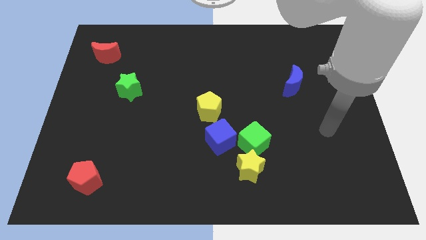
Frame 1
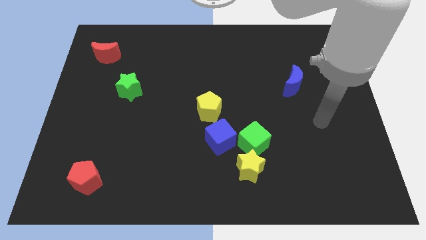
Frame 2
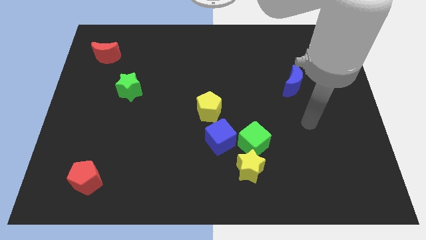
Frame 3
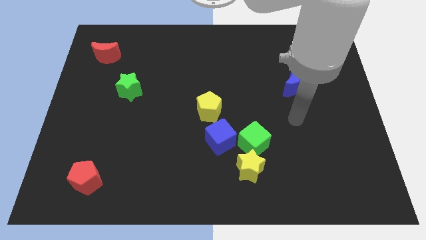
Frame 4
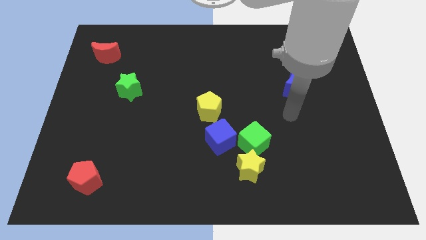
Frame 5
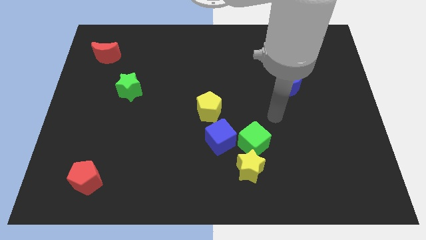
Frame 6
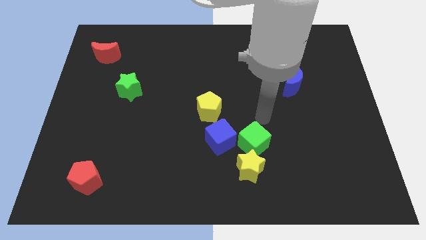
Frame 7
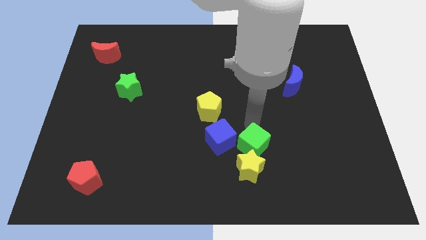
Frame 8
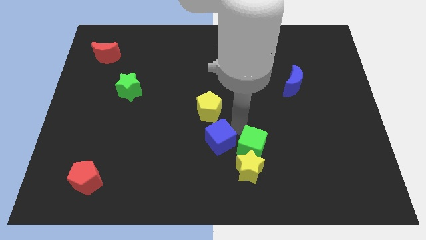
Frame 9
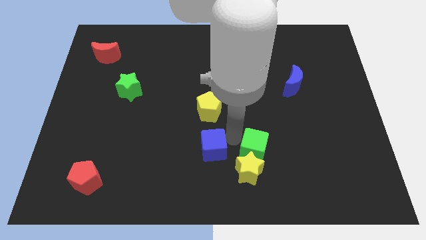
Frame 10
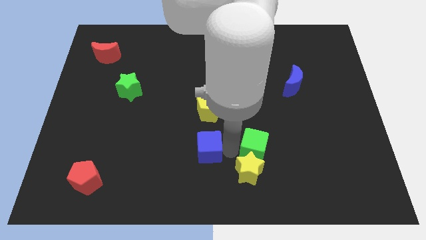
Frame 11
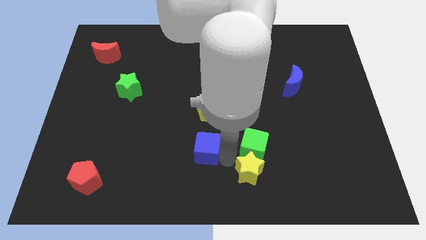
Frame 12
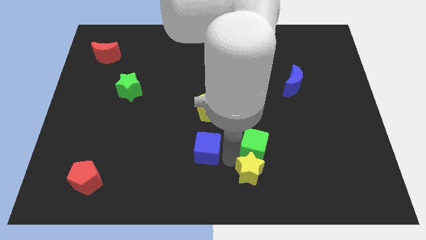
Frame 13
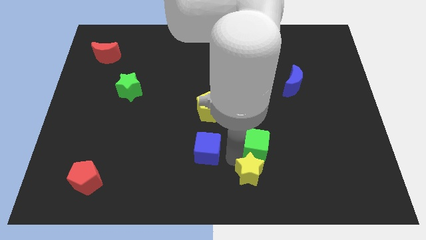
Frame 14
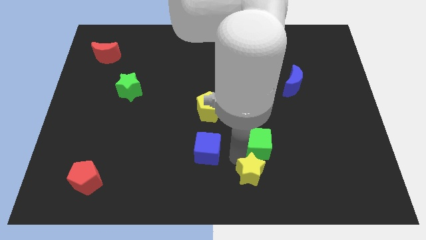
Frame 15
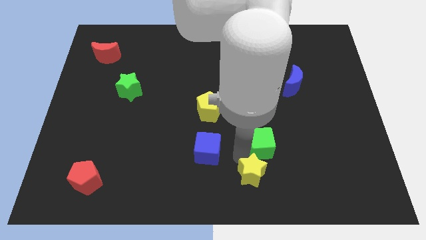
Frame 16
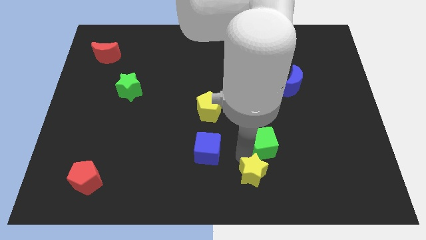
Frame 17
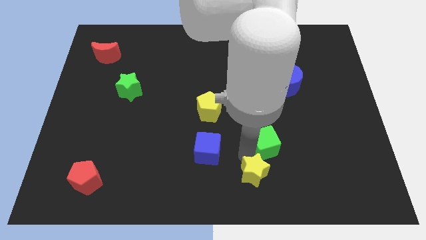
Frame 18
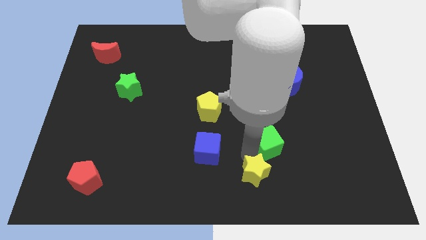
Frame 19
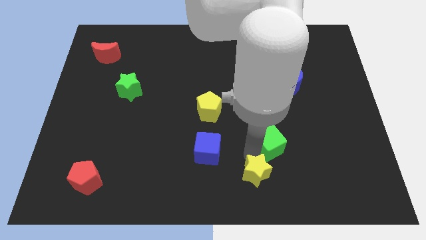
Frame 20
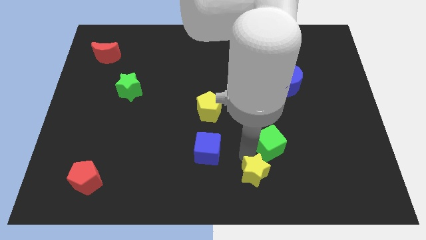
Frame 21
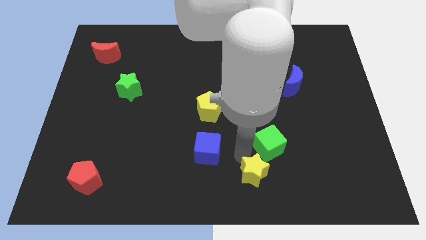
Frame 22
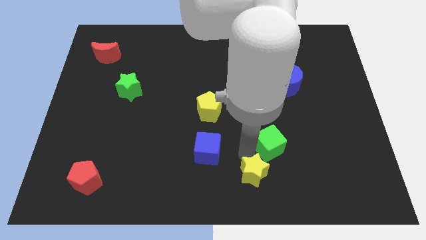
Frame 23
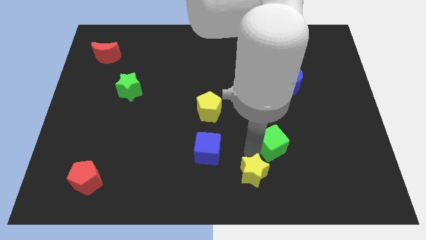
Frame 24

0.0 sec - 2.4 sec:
move the green cube away from the yellow star and blue cube

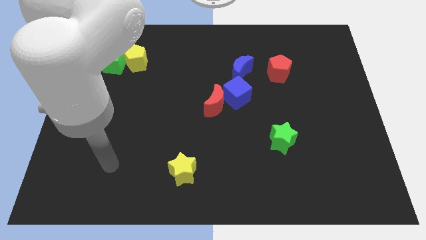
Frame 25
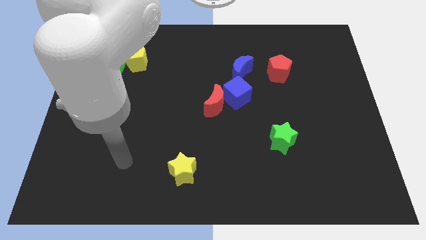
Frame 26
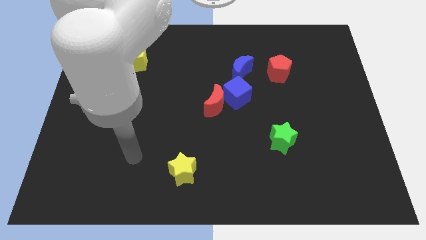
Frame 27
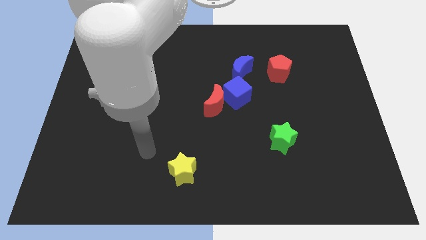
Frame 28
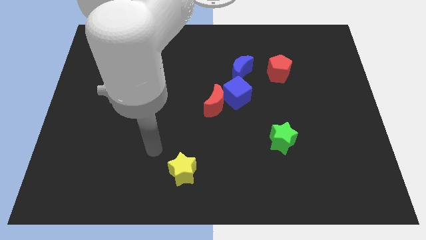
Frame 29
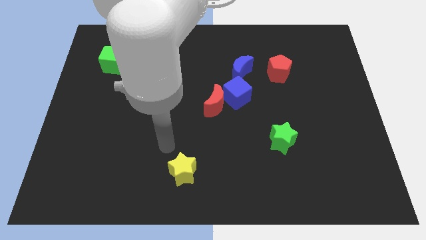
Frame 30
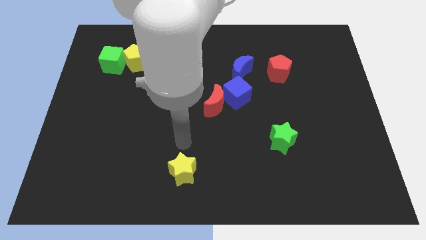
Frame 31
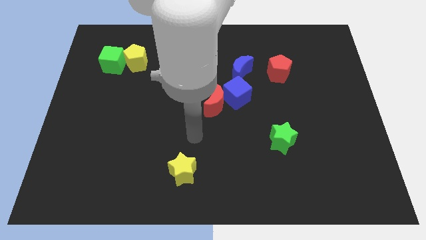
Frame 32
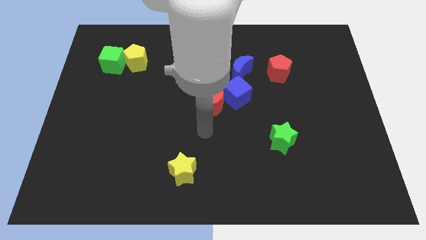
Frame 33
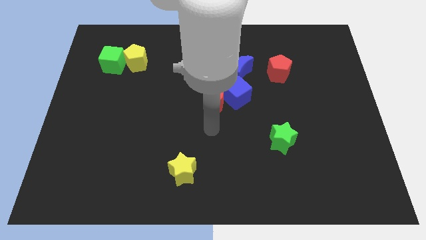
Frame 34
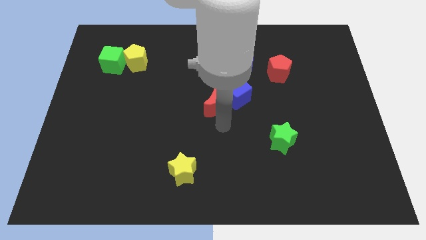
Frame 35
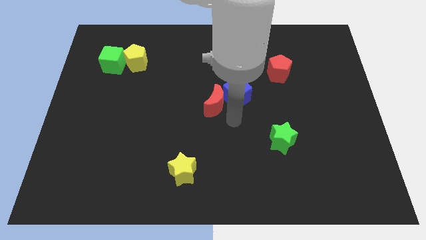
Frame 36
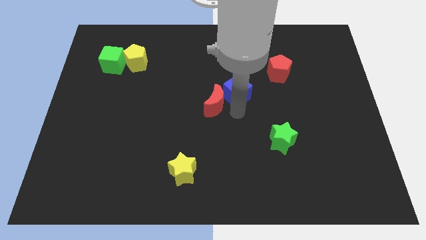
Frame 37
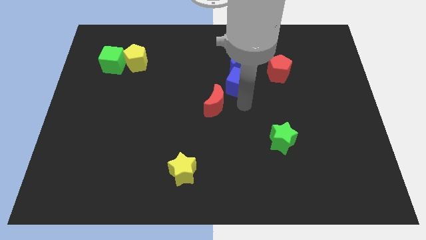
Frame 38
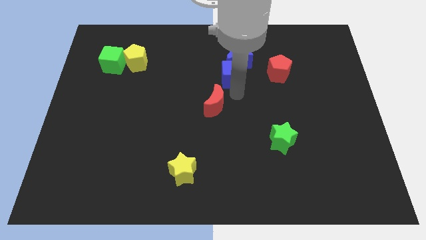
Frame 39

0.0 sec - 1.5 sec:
move the red moon away from the blue cube

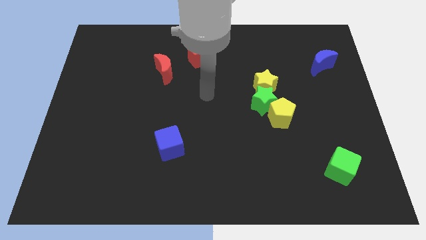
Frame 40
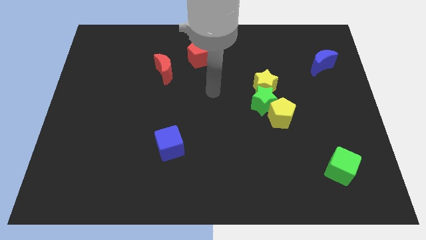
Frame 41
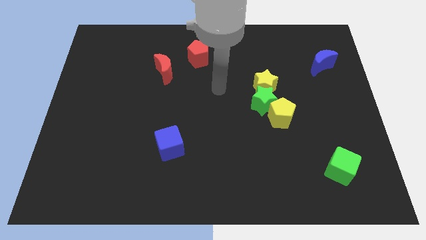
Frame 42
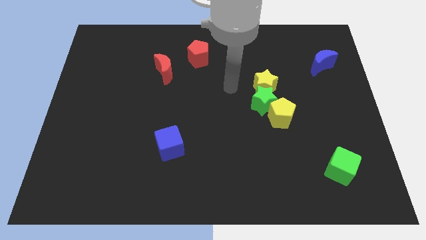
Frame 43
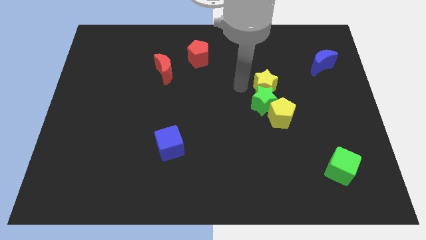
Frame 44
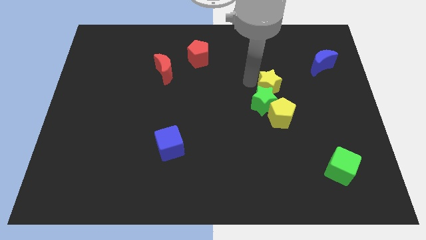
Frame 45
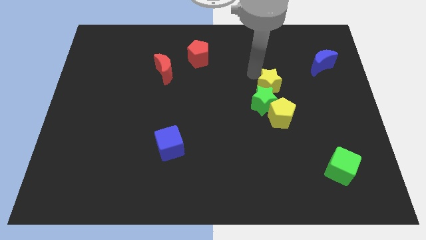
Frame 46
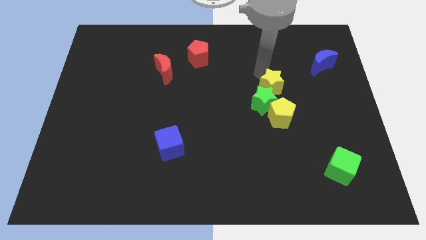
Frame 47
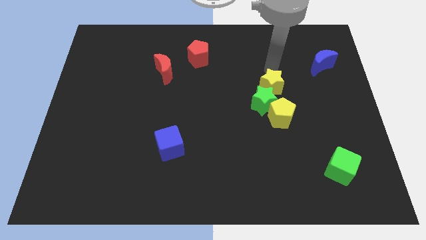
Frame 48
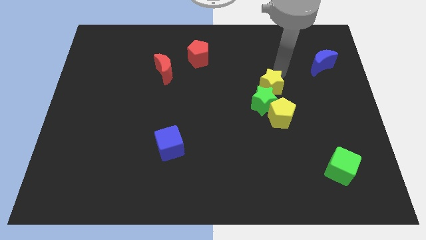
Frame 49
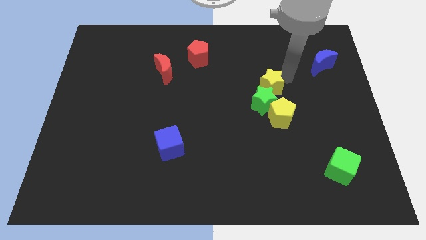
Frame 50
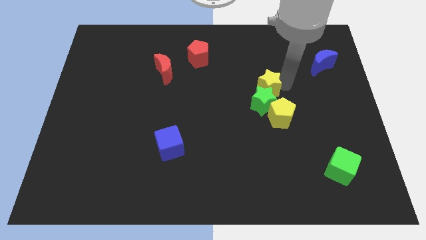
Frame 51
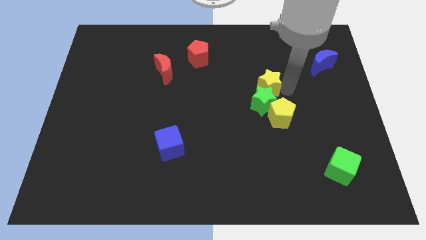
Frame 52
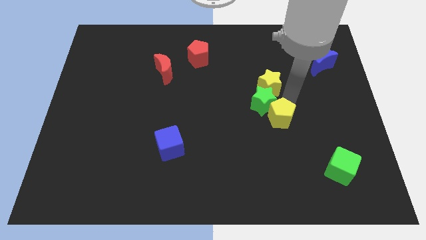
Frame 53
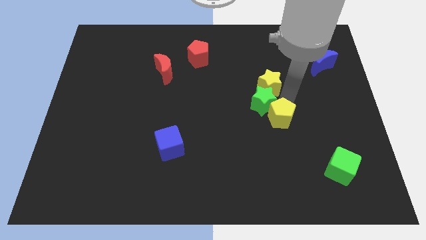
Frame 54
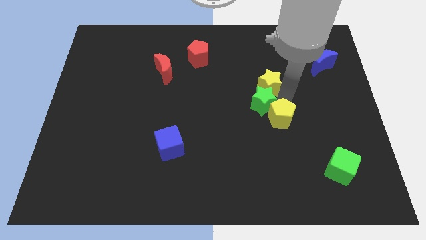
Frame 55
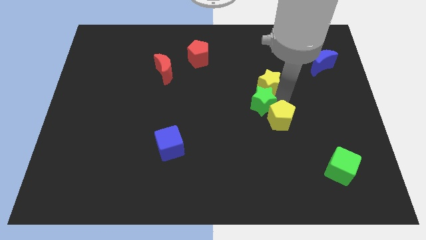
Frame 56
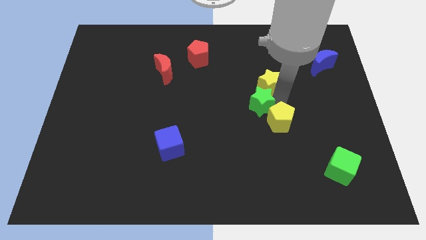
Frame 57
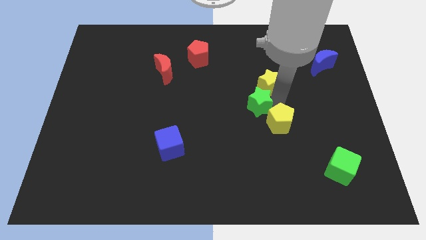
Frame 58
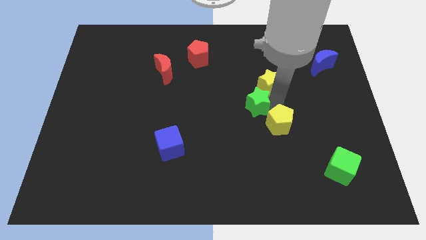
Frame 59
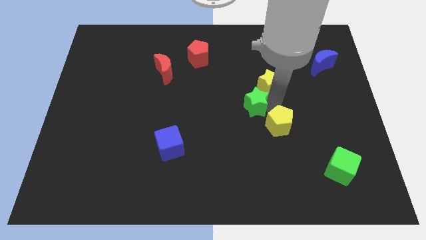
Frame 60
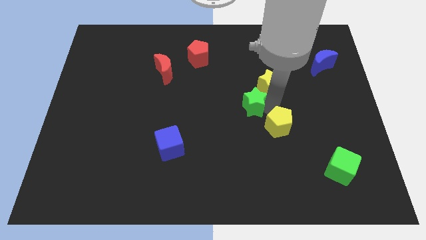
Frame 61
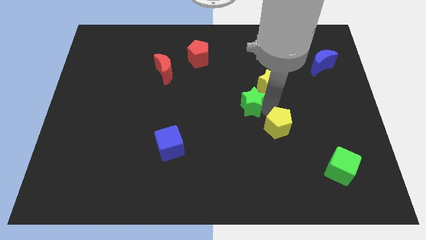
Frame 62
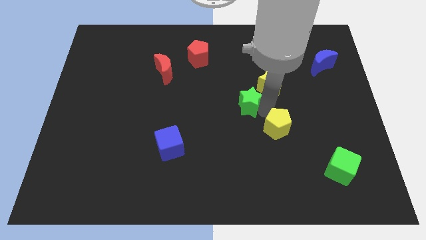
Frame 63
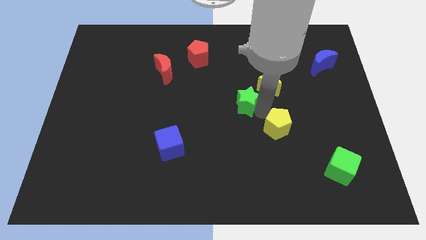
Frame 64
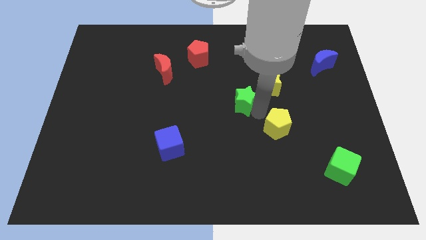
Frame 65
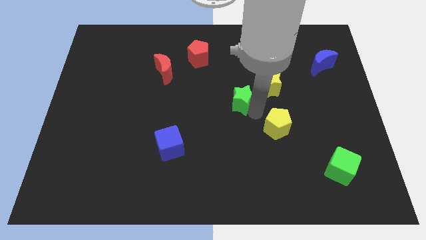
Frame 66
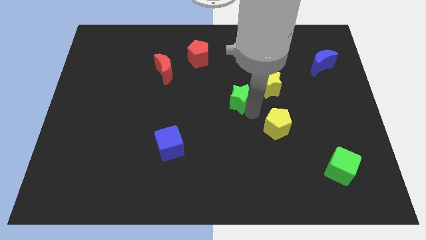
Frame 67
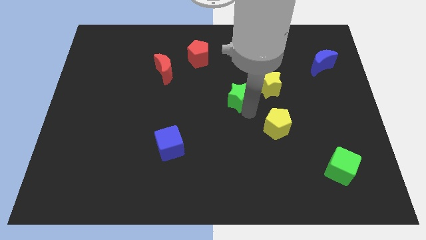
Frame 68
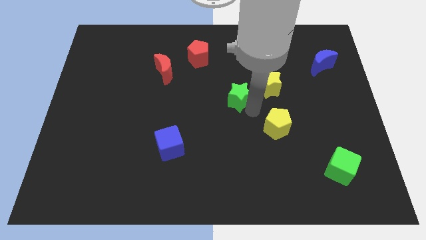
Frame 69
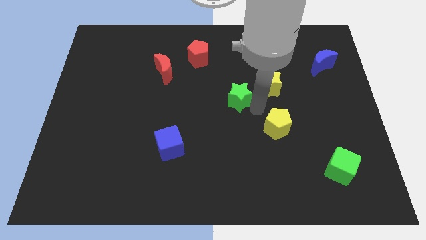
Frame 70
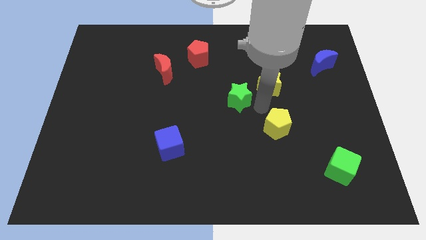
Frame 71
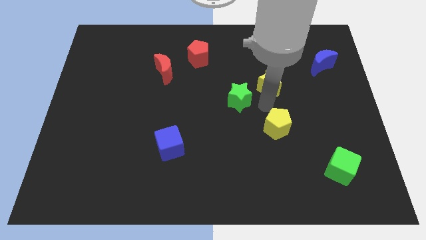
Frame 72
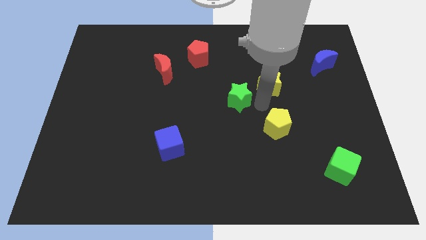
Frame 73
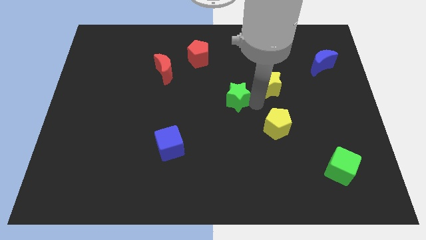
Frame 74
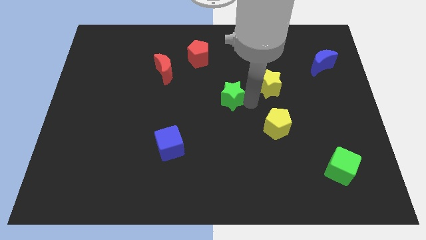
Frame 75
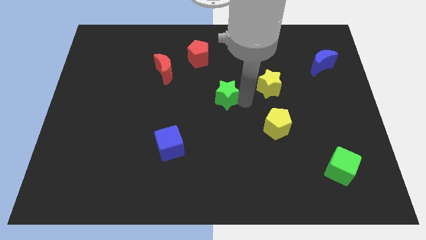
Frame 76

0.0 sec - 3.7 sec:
separate the green star from the yellow star and yellow pentagon

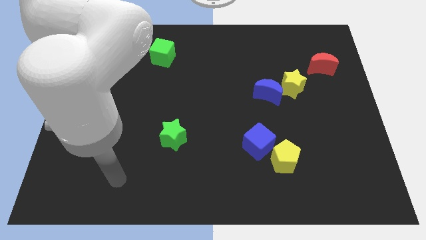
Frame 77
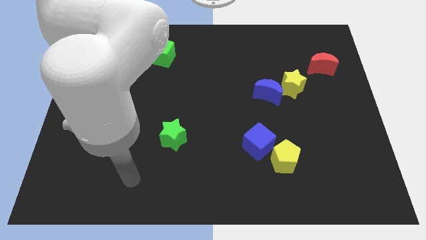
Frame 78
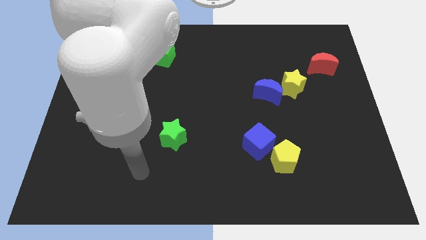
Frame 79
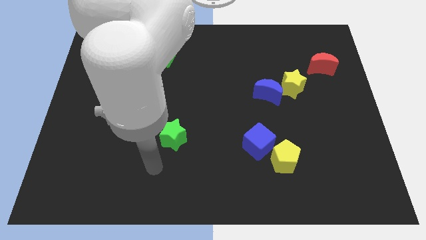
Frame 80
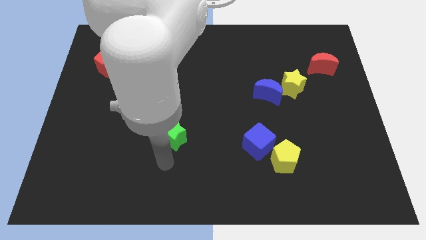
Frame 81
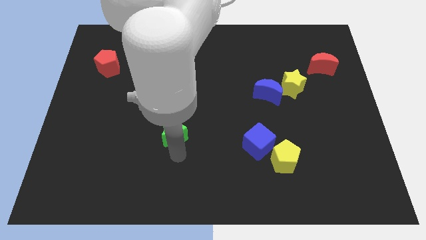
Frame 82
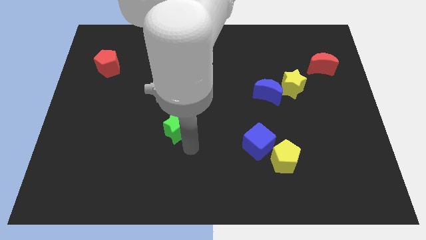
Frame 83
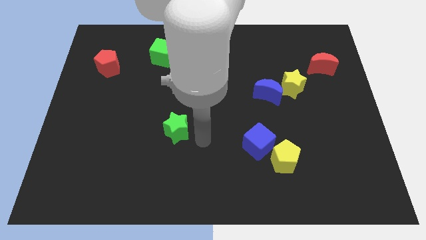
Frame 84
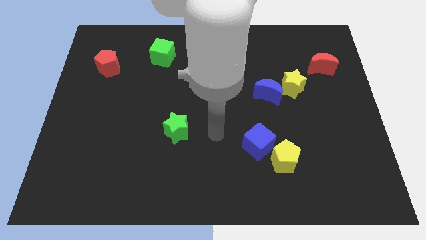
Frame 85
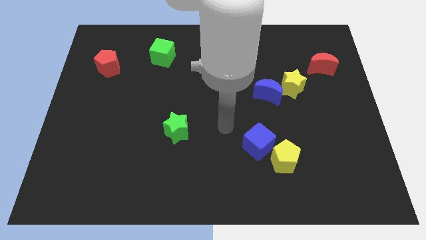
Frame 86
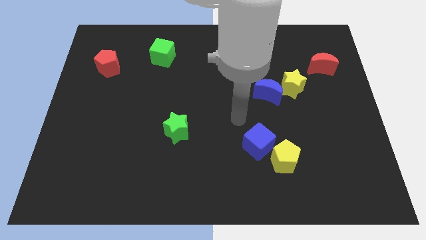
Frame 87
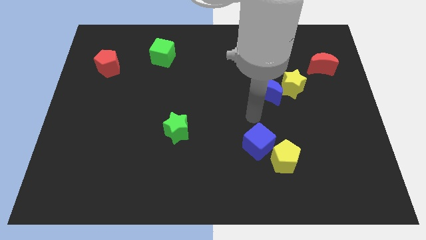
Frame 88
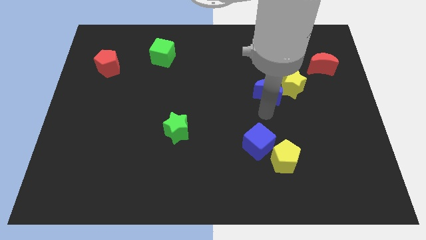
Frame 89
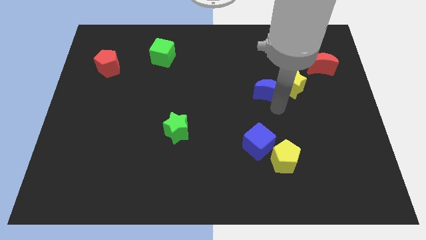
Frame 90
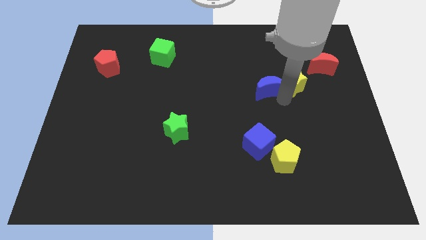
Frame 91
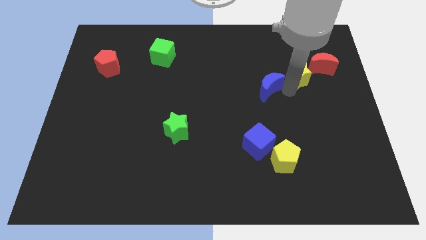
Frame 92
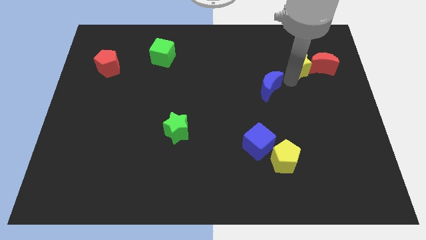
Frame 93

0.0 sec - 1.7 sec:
separate the blue moon from the yellow star

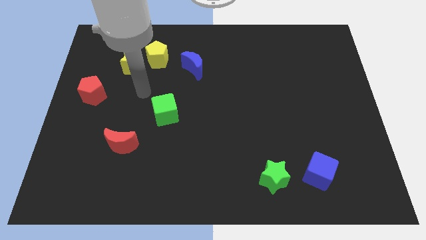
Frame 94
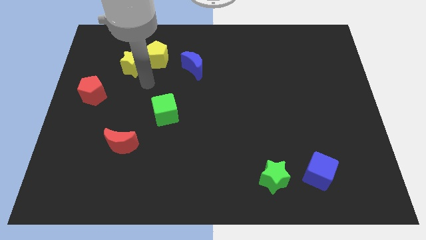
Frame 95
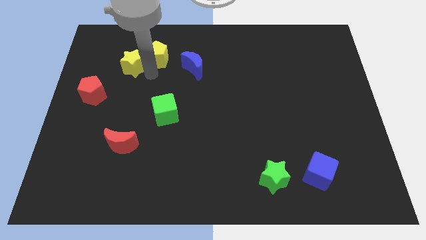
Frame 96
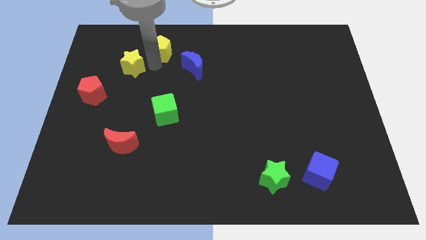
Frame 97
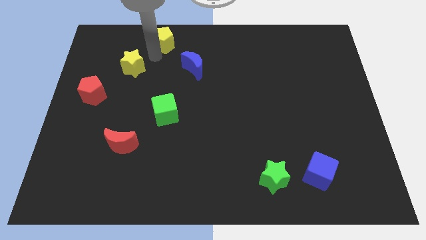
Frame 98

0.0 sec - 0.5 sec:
move the yellow star away from the yellow pentagon
